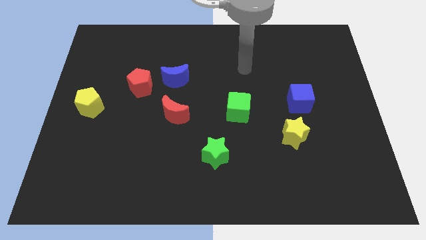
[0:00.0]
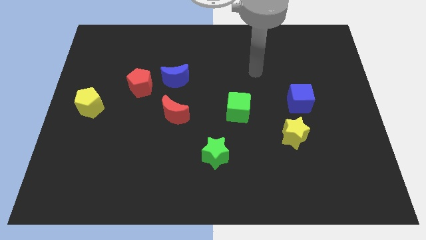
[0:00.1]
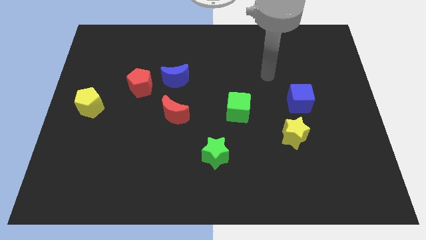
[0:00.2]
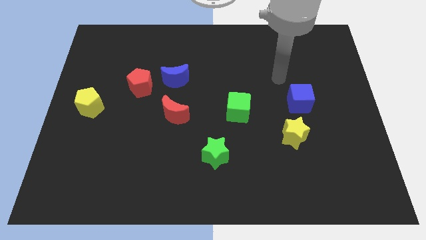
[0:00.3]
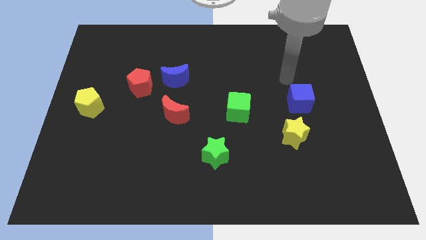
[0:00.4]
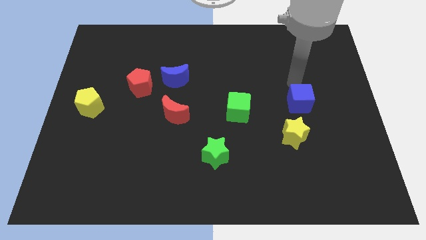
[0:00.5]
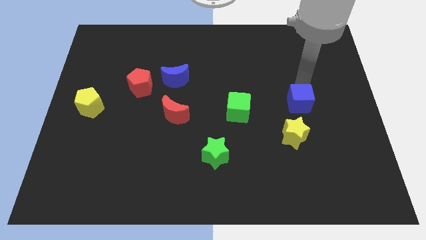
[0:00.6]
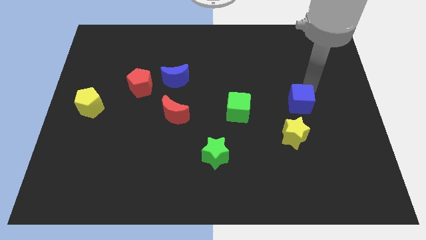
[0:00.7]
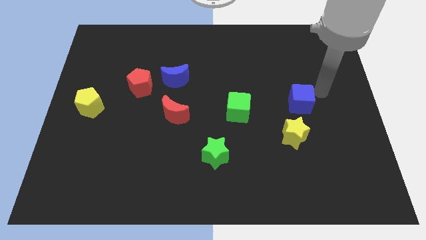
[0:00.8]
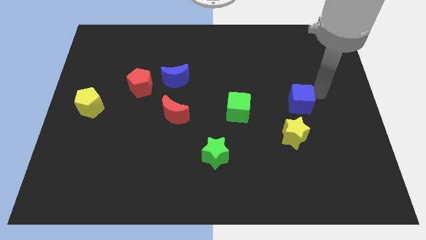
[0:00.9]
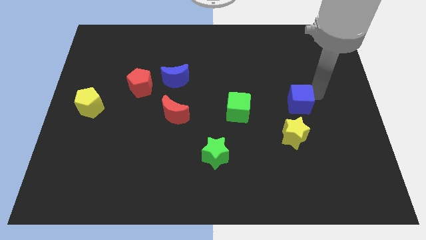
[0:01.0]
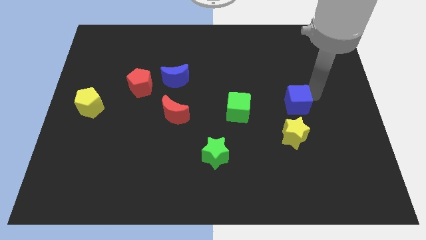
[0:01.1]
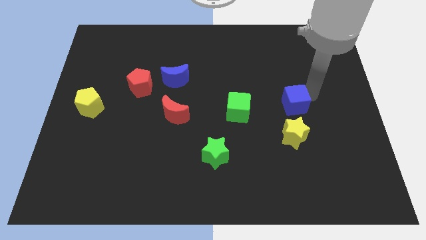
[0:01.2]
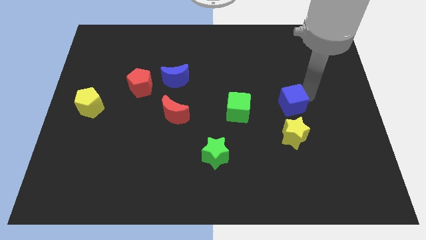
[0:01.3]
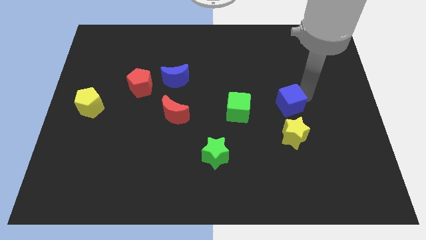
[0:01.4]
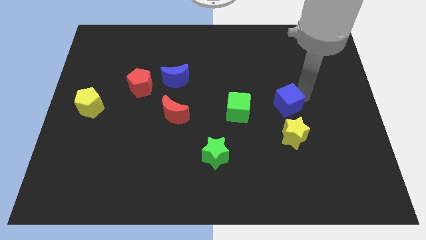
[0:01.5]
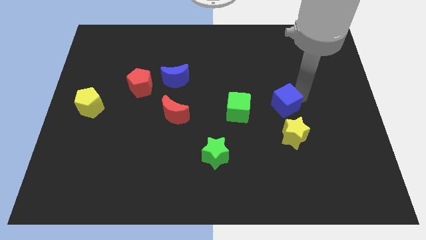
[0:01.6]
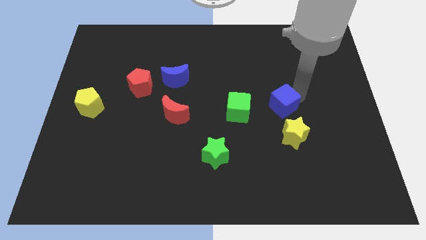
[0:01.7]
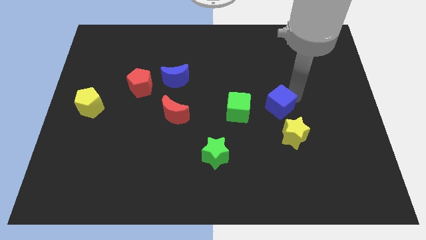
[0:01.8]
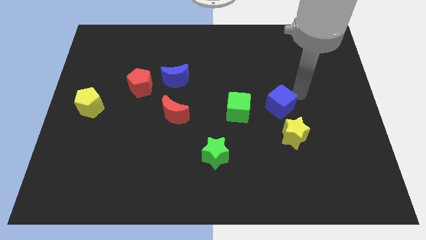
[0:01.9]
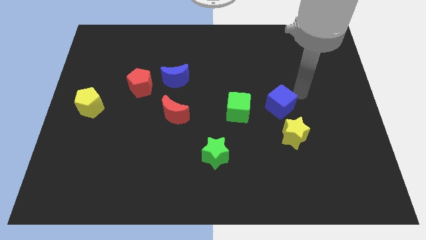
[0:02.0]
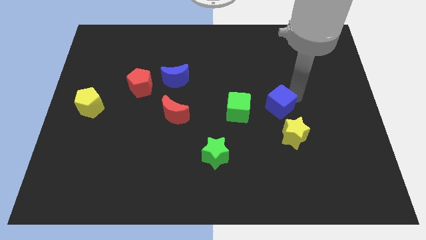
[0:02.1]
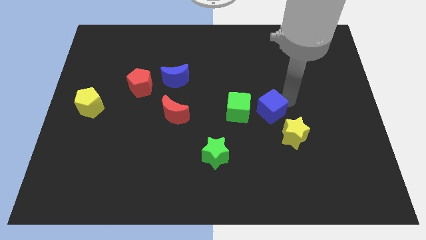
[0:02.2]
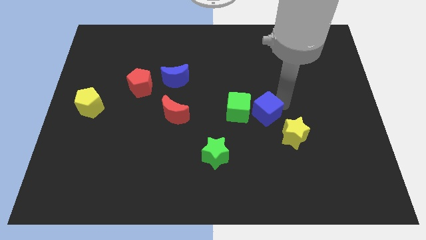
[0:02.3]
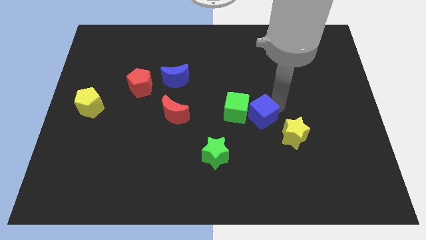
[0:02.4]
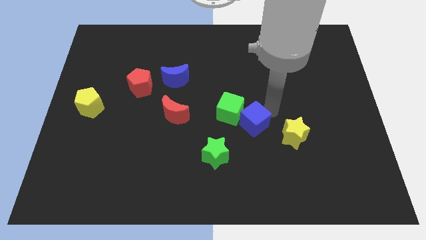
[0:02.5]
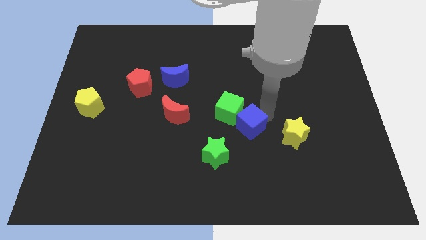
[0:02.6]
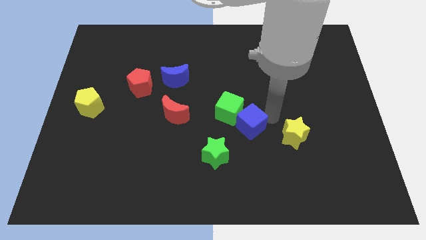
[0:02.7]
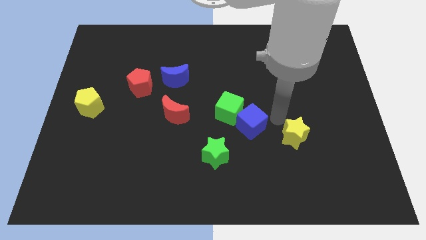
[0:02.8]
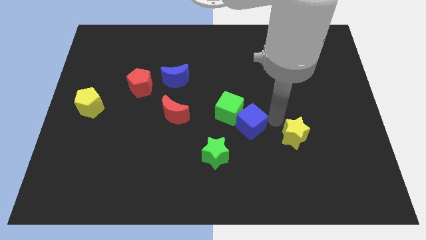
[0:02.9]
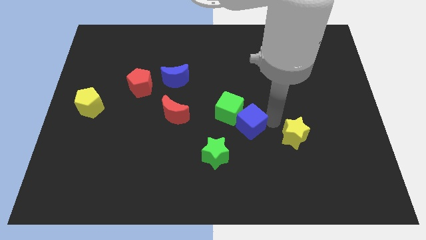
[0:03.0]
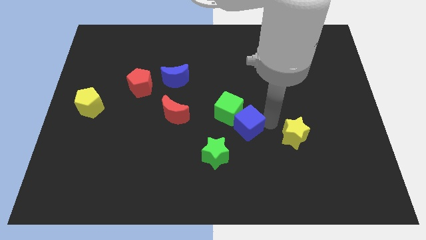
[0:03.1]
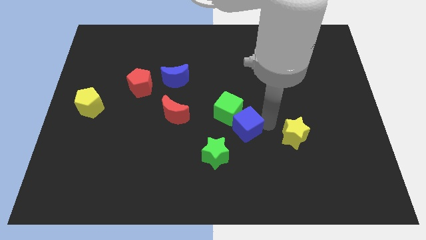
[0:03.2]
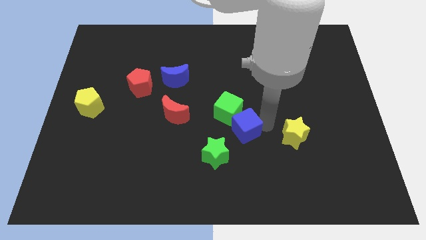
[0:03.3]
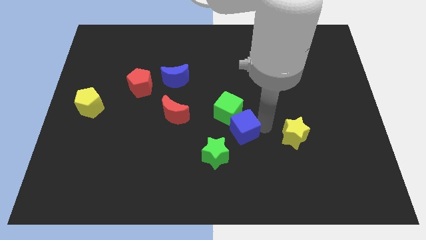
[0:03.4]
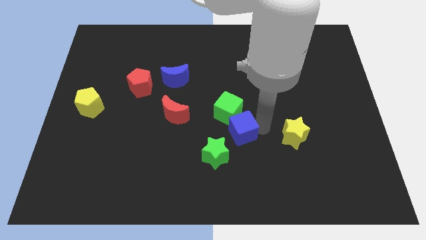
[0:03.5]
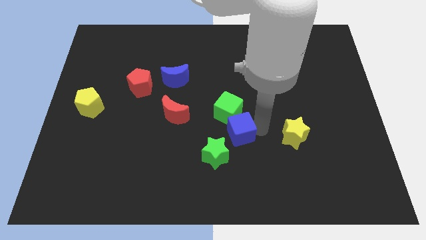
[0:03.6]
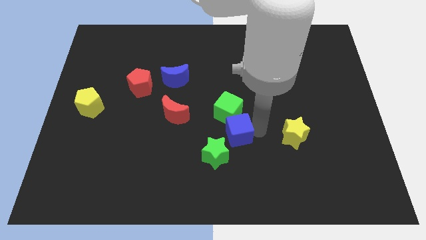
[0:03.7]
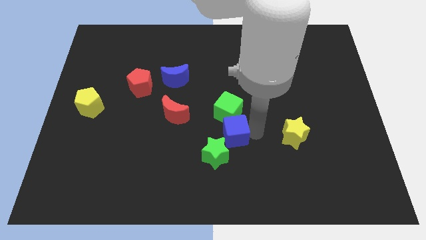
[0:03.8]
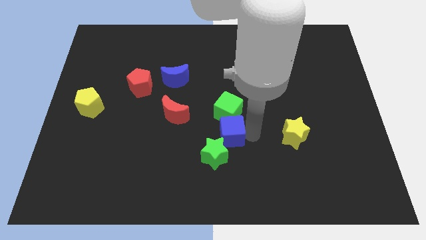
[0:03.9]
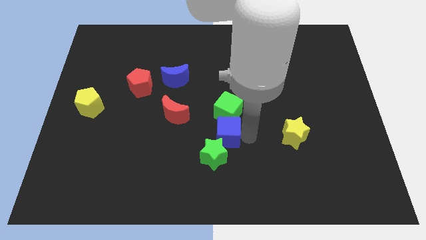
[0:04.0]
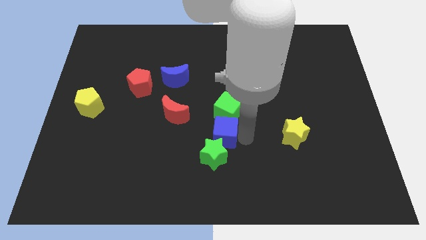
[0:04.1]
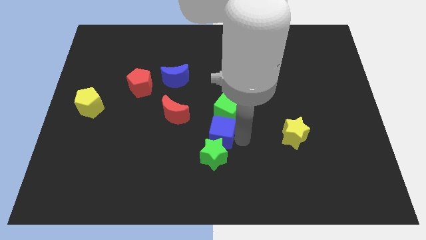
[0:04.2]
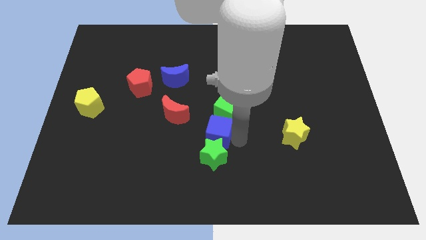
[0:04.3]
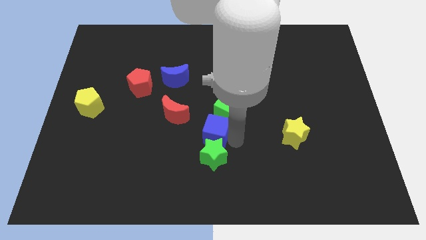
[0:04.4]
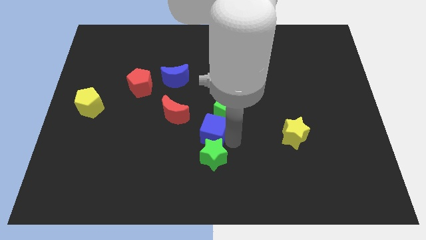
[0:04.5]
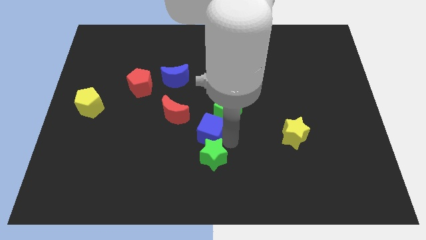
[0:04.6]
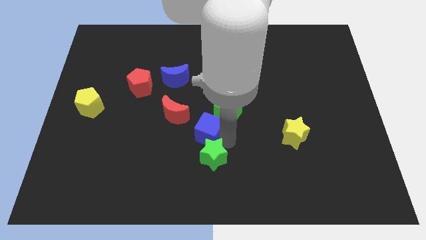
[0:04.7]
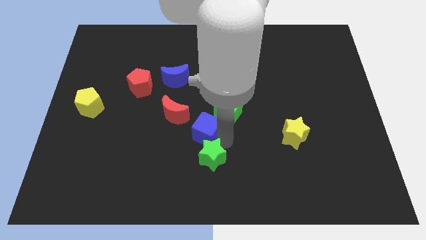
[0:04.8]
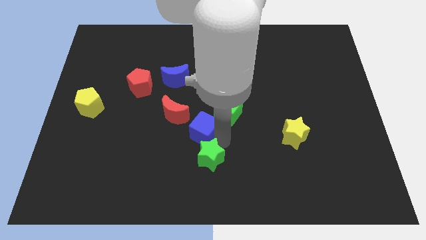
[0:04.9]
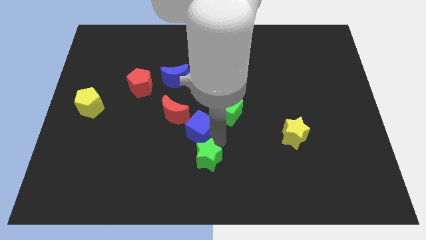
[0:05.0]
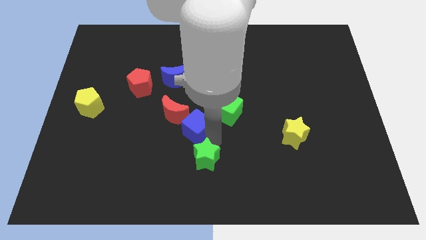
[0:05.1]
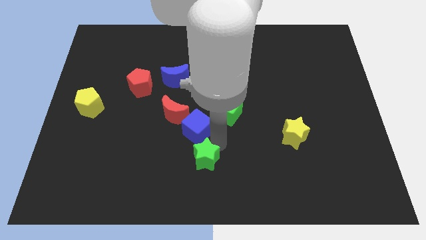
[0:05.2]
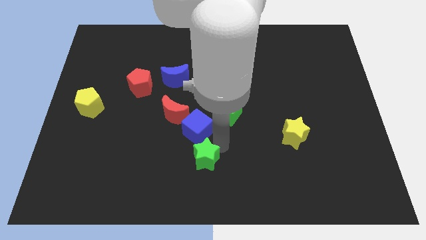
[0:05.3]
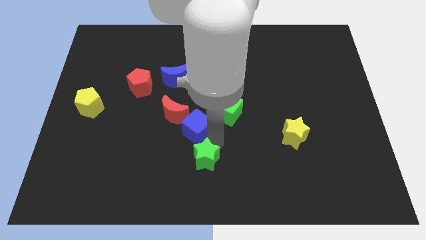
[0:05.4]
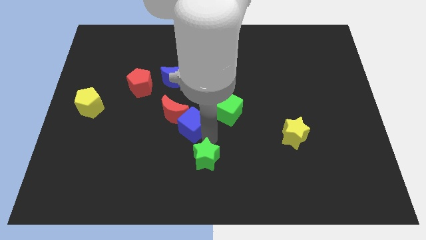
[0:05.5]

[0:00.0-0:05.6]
push the blue cube towards the red moon

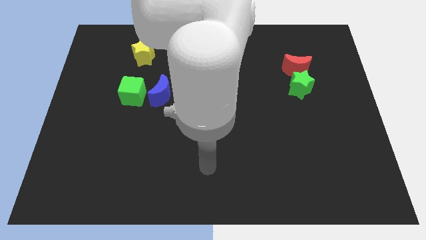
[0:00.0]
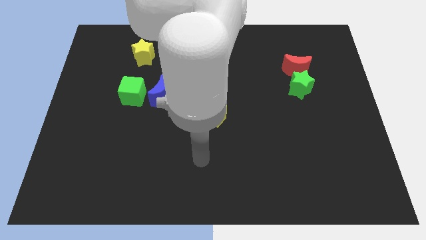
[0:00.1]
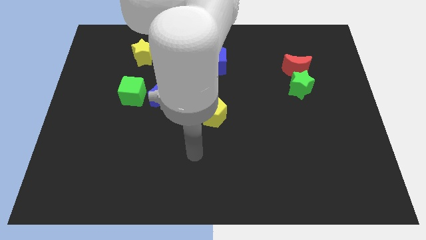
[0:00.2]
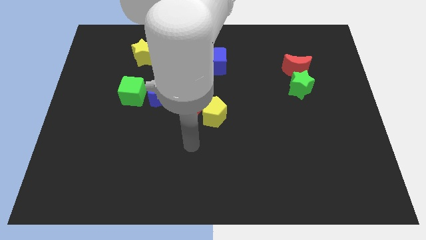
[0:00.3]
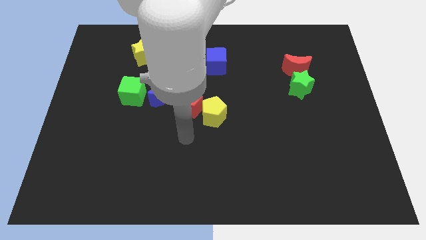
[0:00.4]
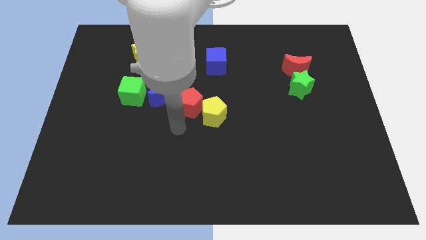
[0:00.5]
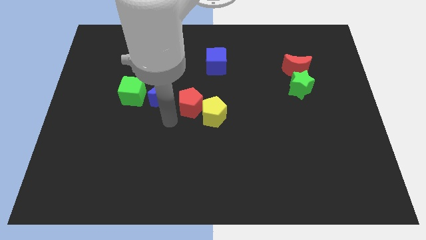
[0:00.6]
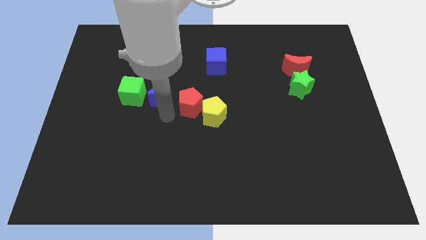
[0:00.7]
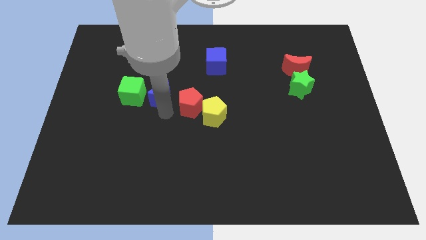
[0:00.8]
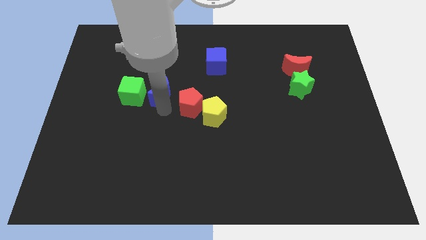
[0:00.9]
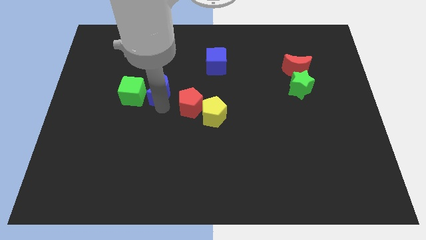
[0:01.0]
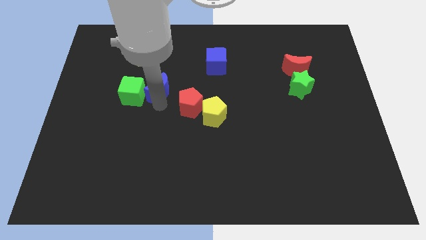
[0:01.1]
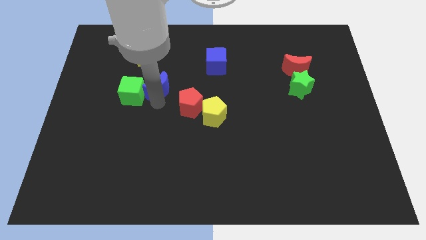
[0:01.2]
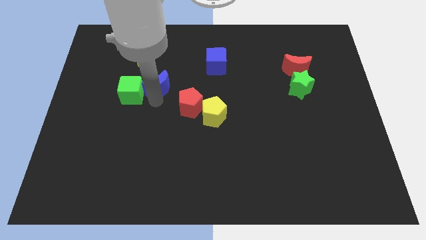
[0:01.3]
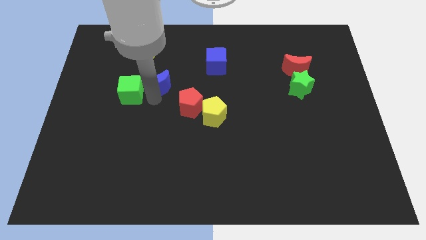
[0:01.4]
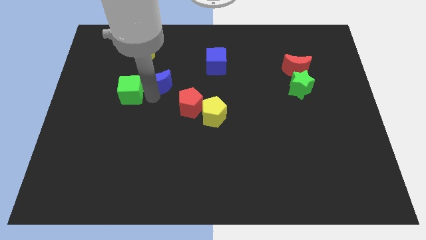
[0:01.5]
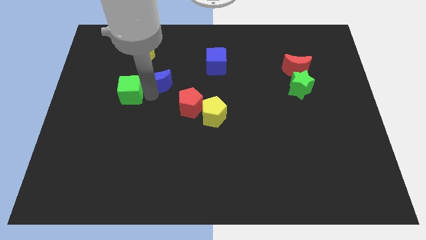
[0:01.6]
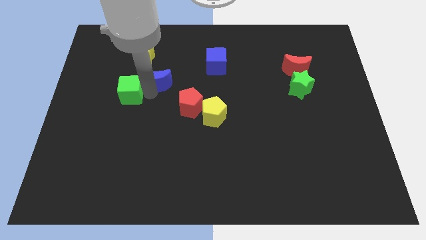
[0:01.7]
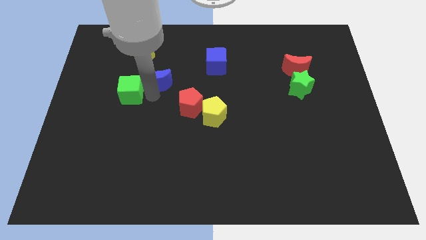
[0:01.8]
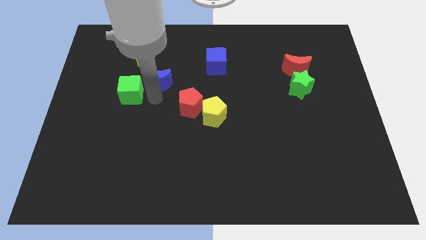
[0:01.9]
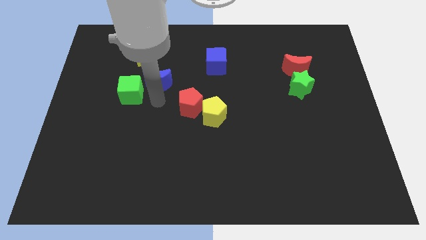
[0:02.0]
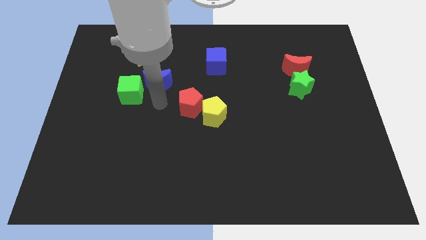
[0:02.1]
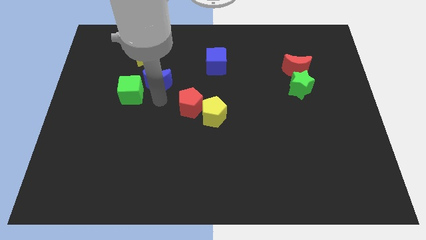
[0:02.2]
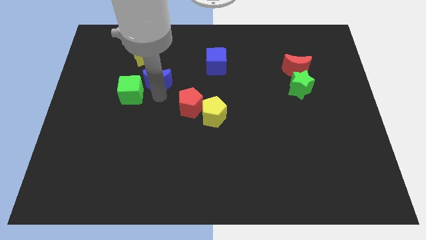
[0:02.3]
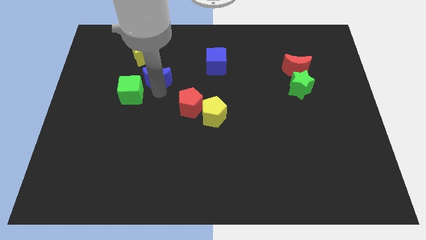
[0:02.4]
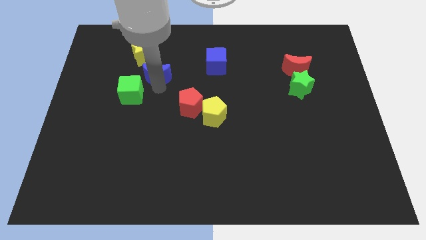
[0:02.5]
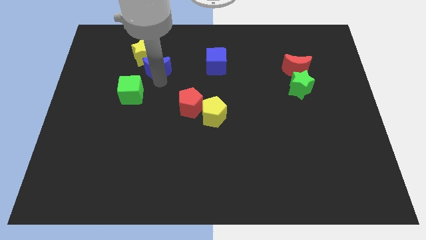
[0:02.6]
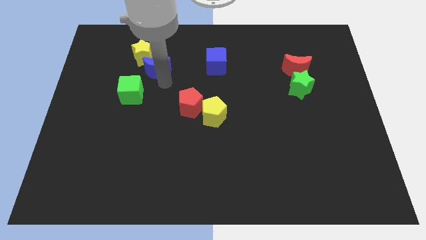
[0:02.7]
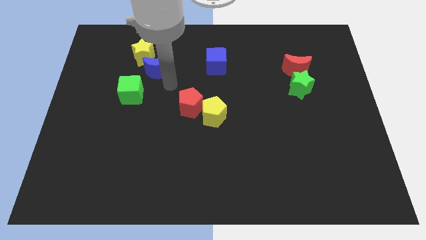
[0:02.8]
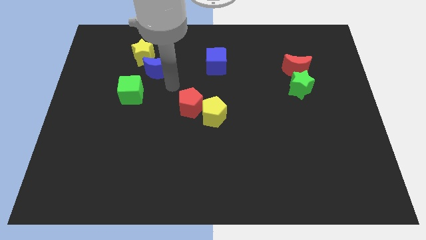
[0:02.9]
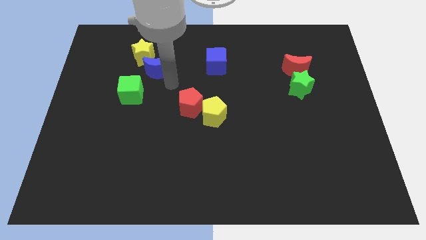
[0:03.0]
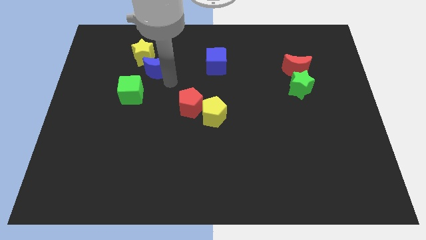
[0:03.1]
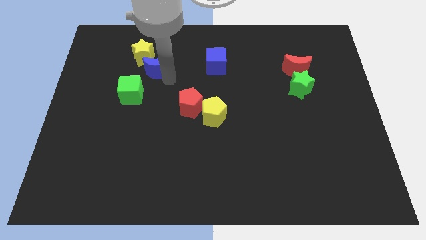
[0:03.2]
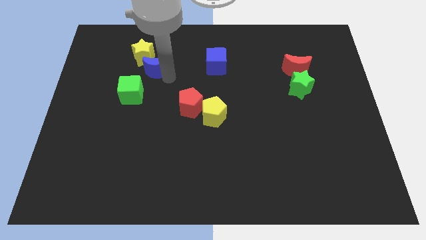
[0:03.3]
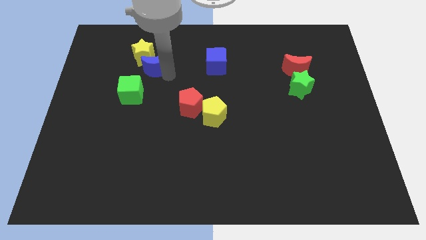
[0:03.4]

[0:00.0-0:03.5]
put the blue moon to the yellow star
